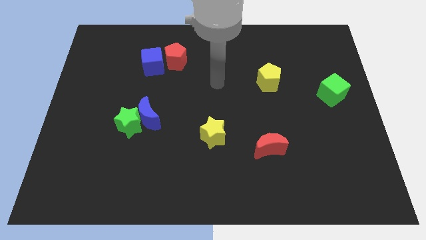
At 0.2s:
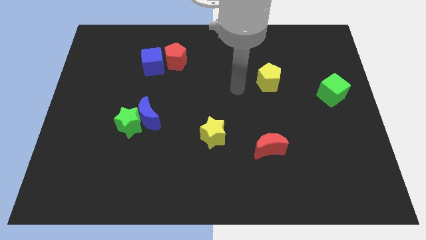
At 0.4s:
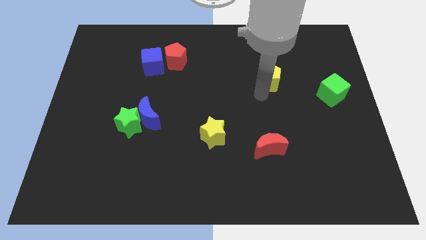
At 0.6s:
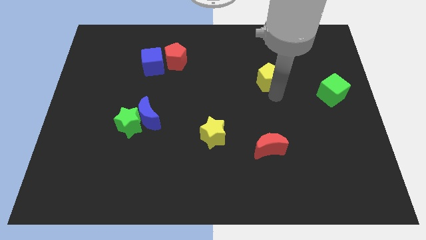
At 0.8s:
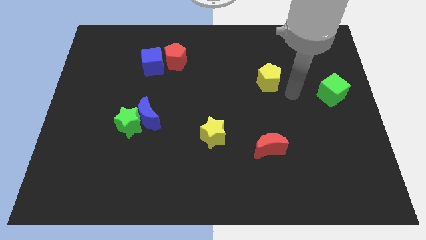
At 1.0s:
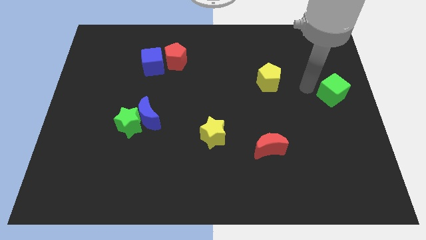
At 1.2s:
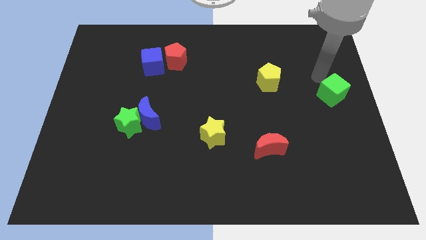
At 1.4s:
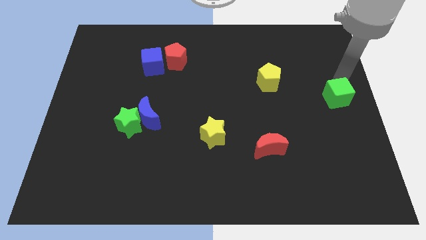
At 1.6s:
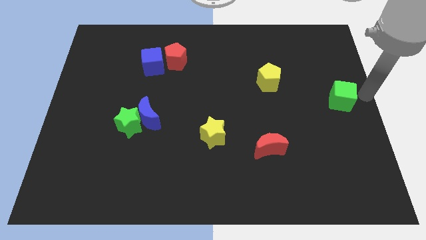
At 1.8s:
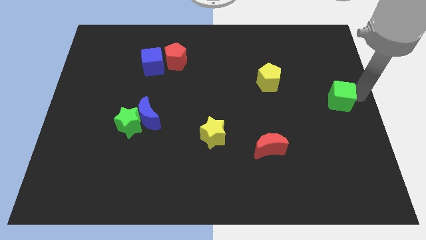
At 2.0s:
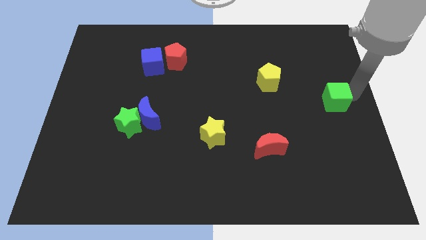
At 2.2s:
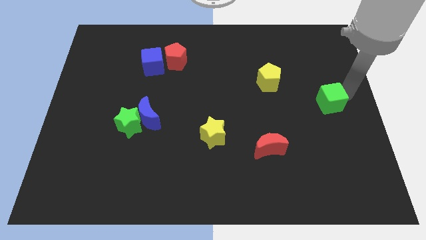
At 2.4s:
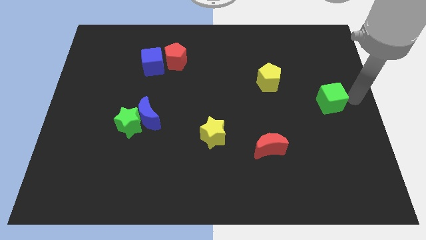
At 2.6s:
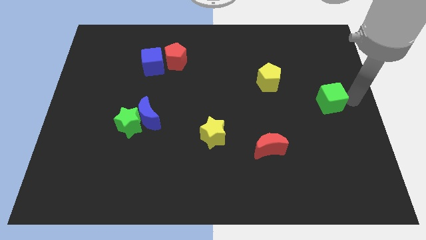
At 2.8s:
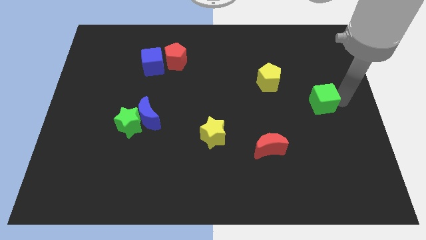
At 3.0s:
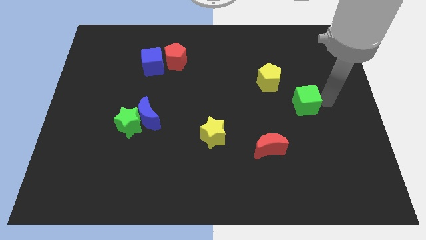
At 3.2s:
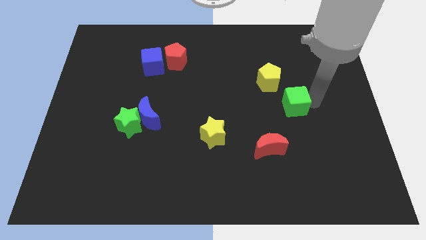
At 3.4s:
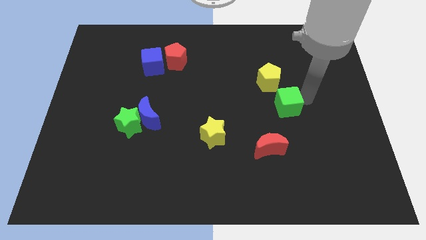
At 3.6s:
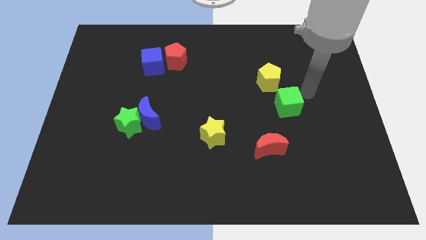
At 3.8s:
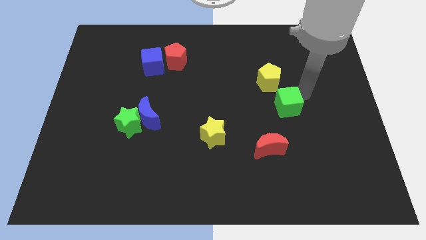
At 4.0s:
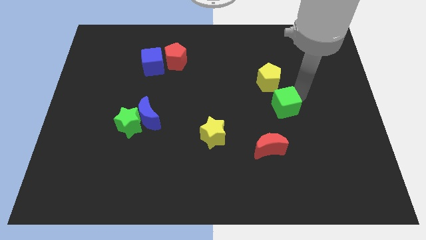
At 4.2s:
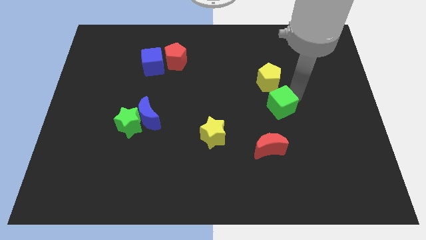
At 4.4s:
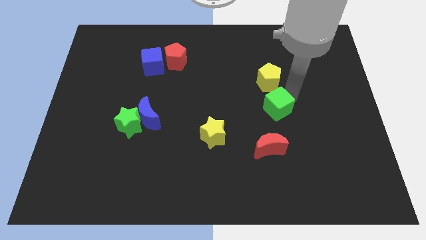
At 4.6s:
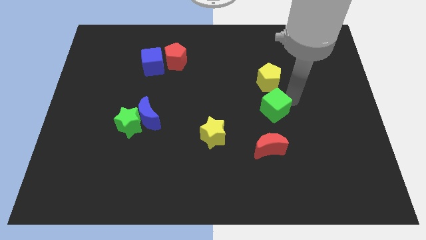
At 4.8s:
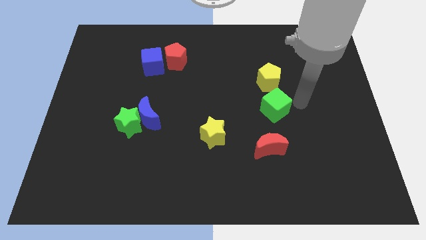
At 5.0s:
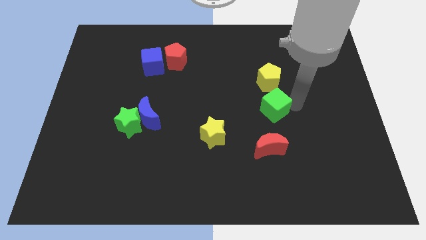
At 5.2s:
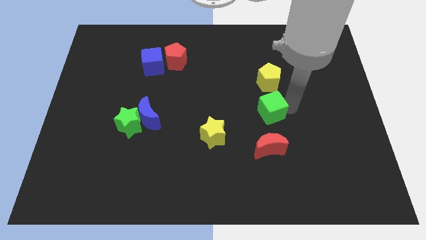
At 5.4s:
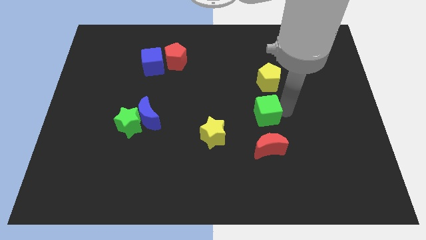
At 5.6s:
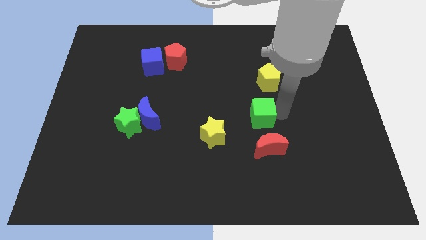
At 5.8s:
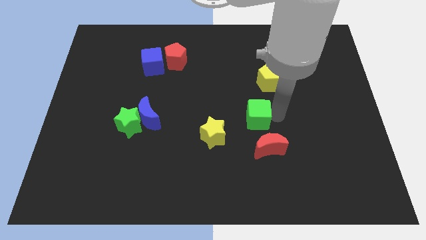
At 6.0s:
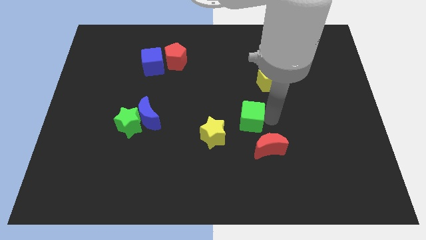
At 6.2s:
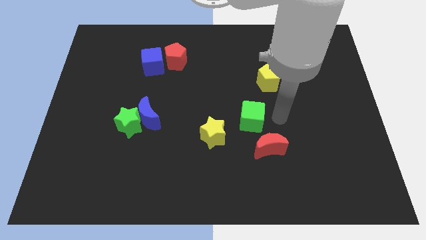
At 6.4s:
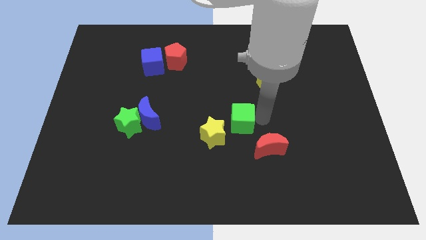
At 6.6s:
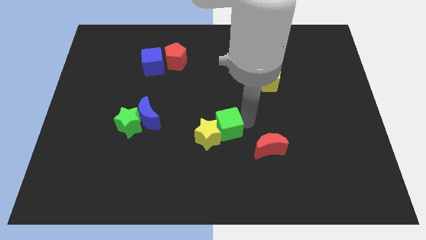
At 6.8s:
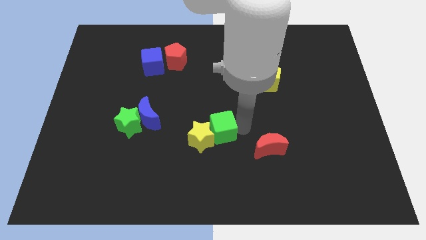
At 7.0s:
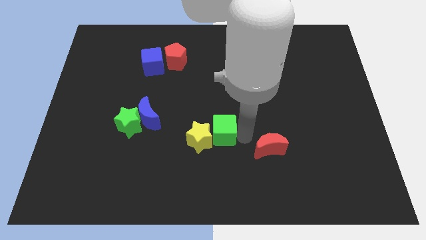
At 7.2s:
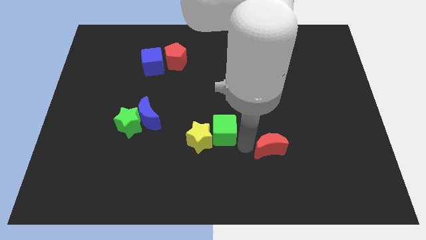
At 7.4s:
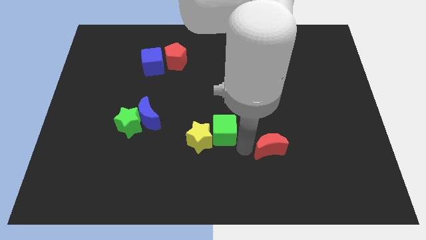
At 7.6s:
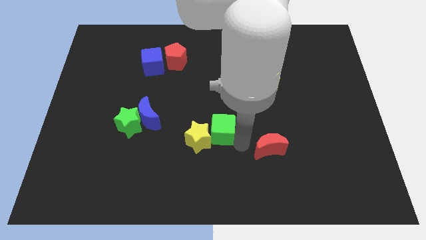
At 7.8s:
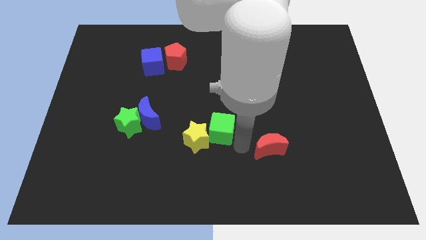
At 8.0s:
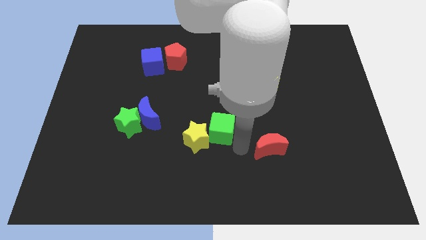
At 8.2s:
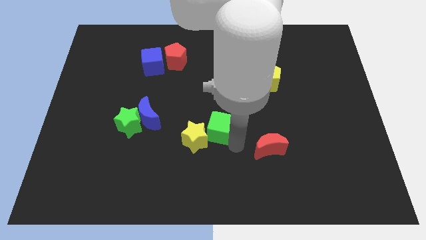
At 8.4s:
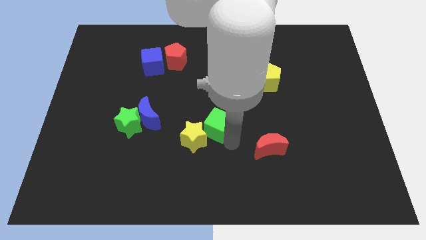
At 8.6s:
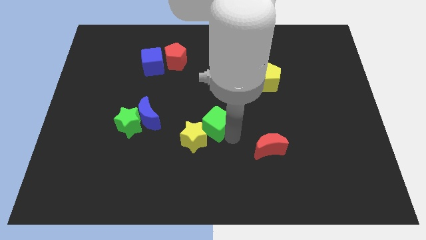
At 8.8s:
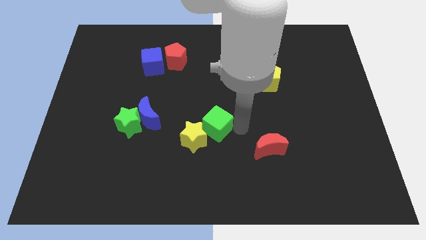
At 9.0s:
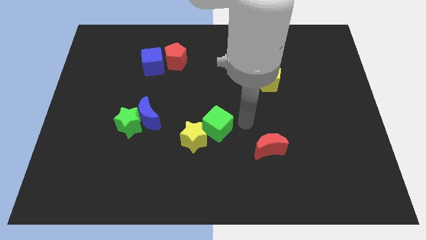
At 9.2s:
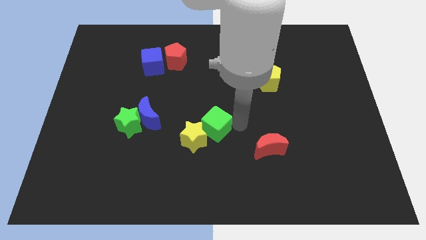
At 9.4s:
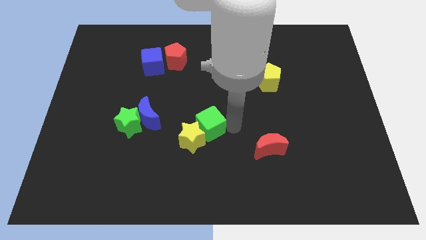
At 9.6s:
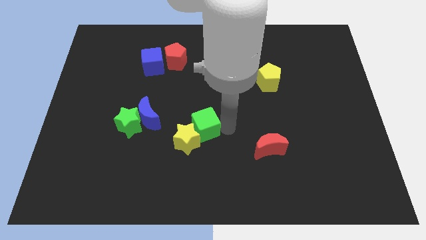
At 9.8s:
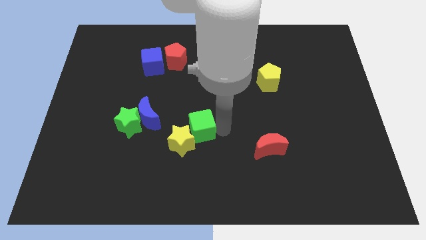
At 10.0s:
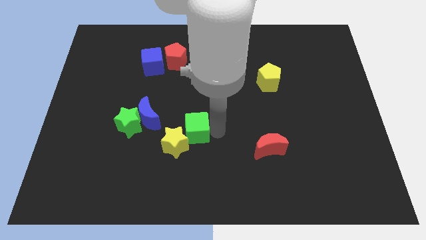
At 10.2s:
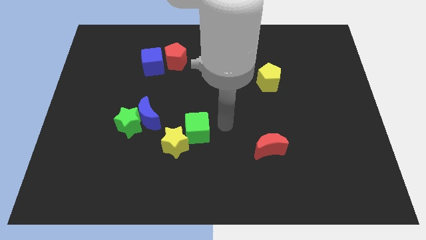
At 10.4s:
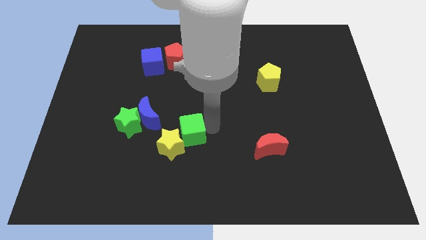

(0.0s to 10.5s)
put the green cube to the bottom right side of the blue moon

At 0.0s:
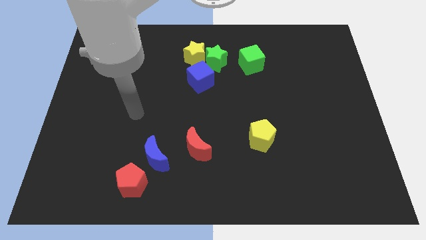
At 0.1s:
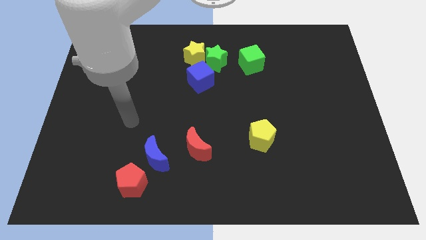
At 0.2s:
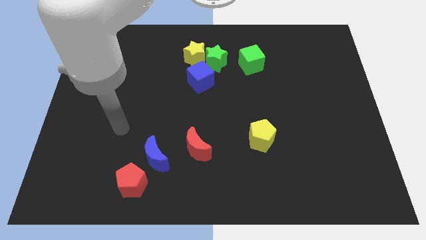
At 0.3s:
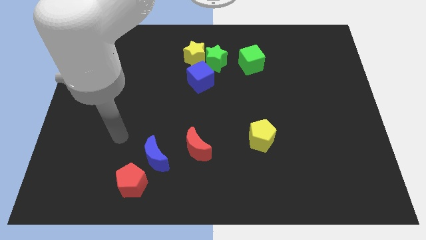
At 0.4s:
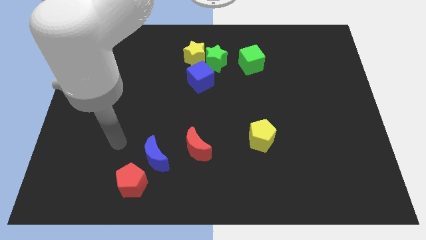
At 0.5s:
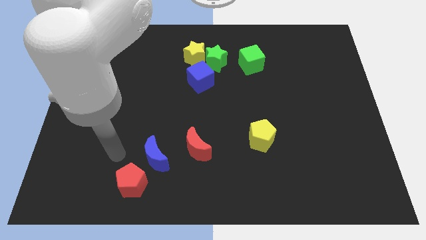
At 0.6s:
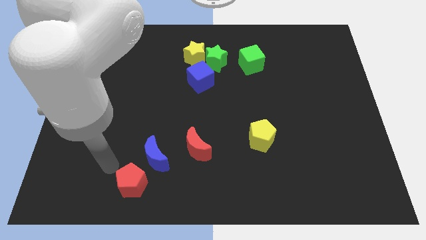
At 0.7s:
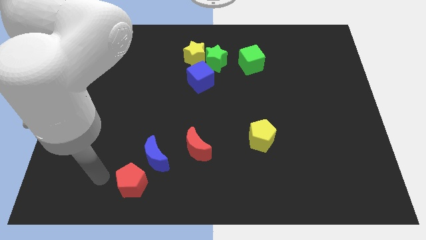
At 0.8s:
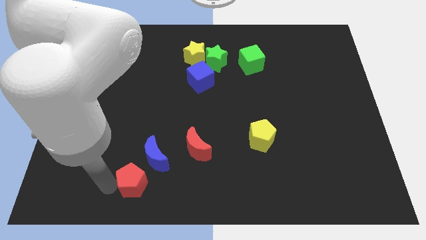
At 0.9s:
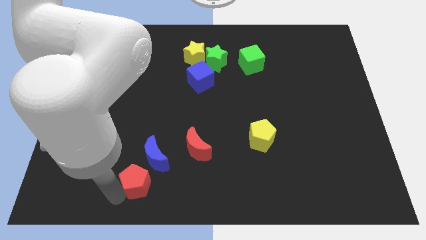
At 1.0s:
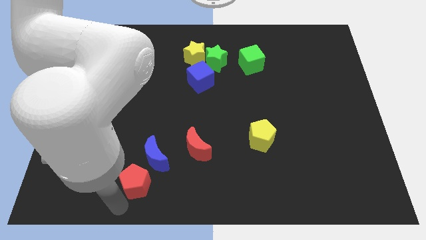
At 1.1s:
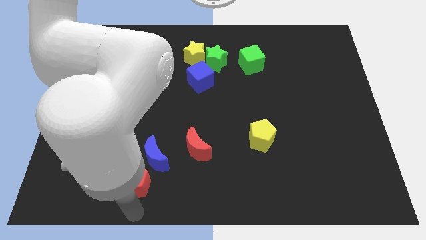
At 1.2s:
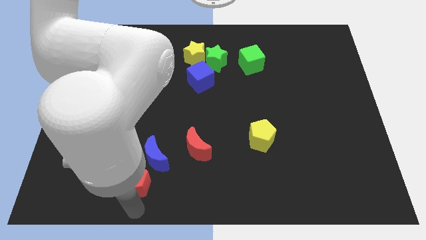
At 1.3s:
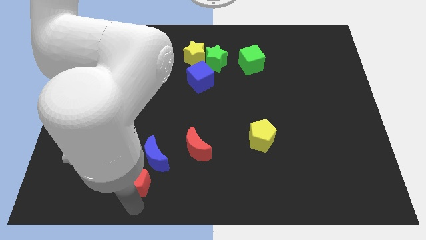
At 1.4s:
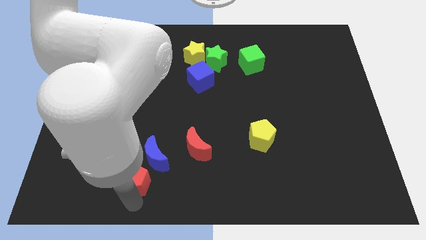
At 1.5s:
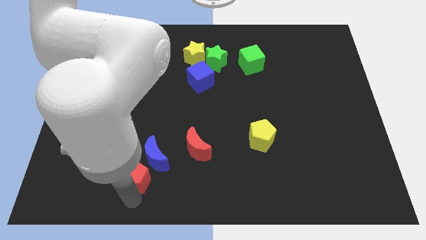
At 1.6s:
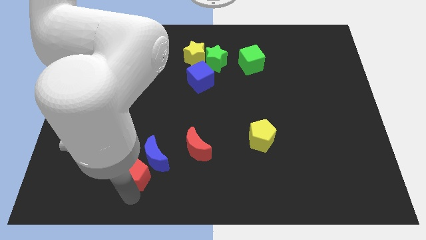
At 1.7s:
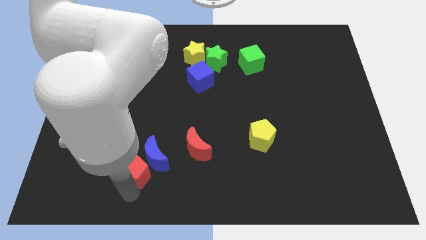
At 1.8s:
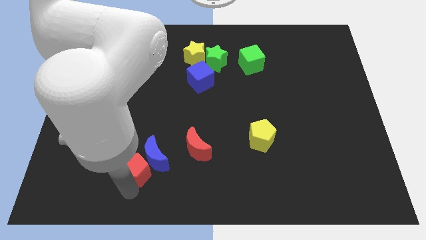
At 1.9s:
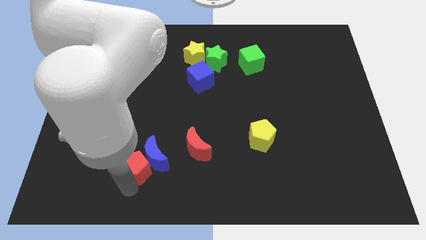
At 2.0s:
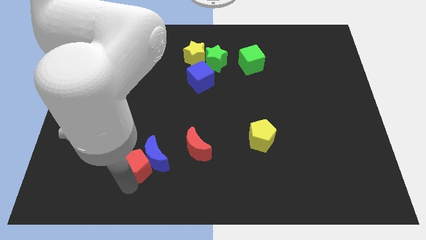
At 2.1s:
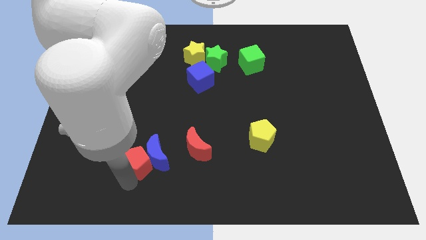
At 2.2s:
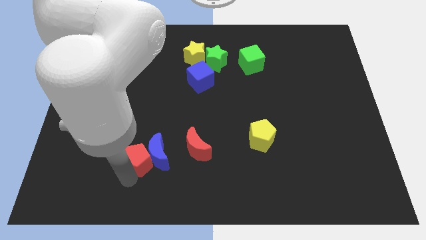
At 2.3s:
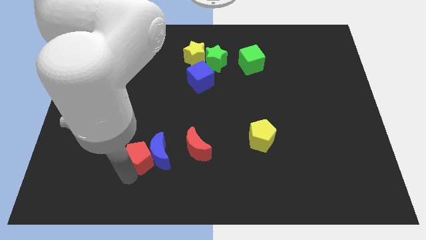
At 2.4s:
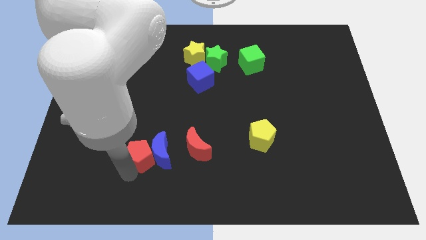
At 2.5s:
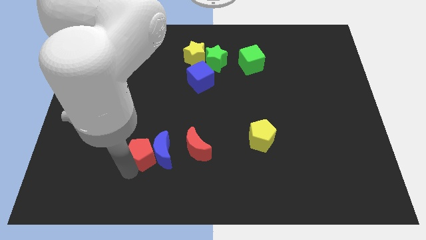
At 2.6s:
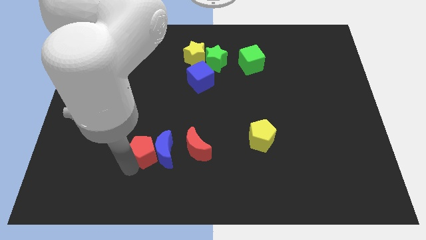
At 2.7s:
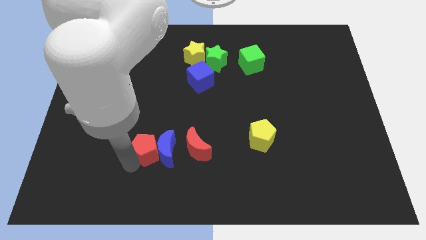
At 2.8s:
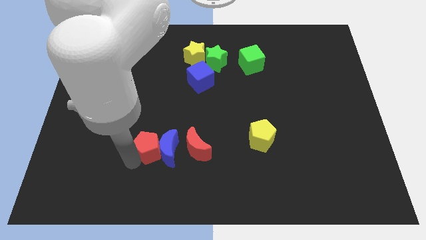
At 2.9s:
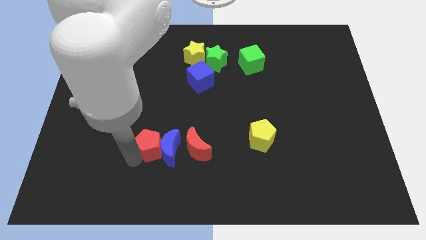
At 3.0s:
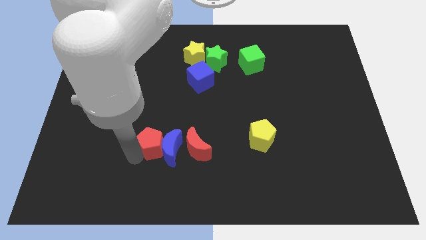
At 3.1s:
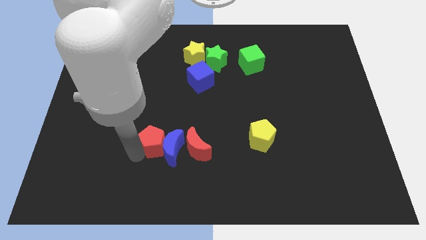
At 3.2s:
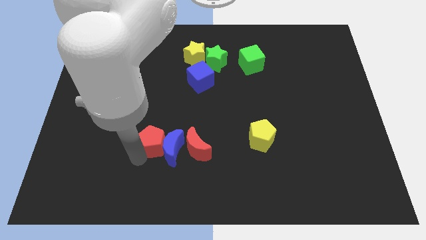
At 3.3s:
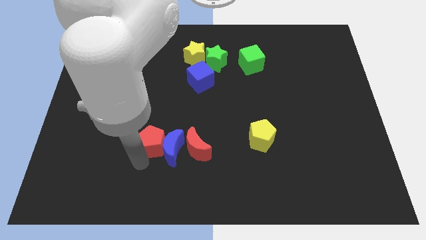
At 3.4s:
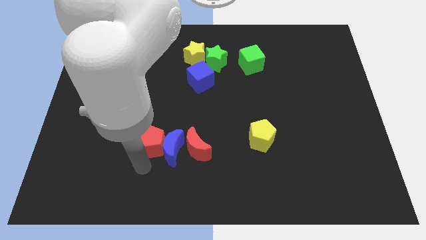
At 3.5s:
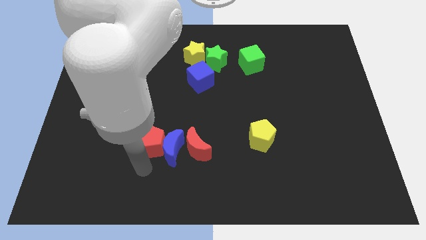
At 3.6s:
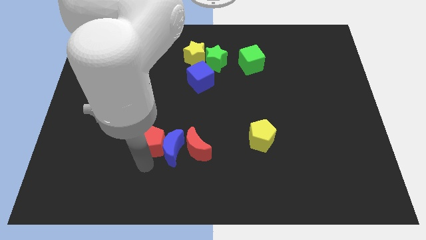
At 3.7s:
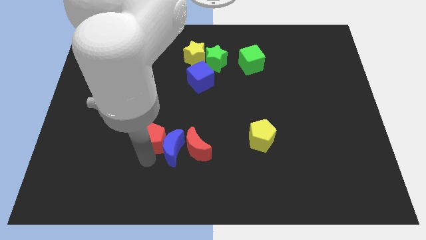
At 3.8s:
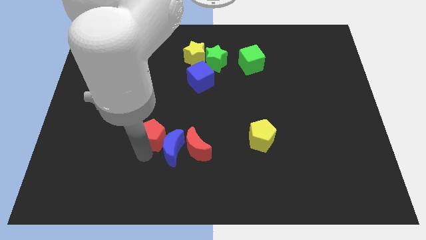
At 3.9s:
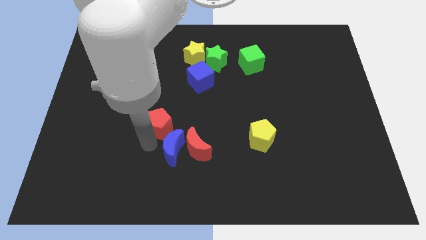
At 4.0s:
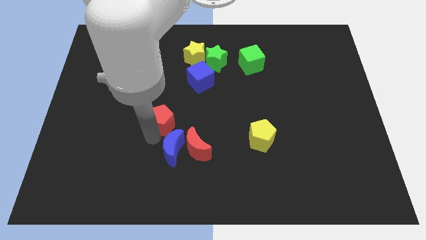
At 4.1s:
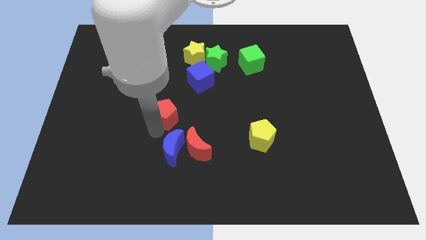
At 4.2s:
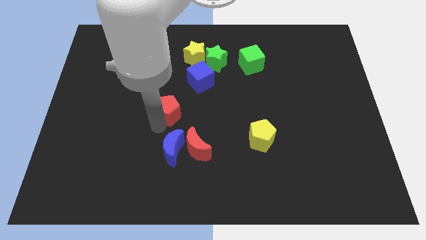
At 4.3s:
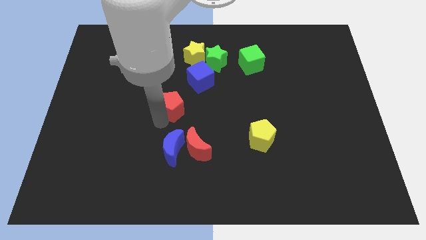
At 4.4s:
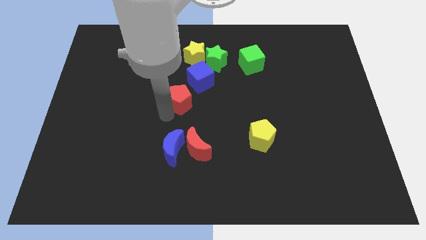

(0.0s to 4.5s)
push the red pentagon to the bottom side of the yellow star
